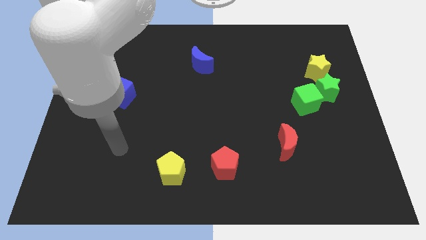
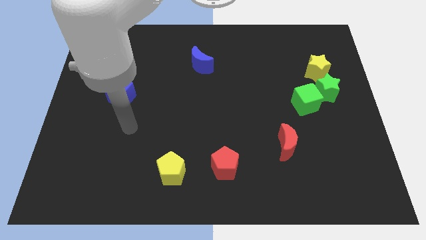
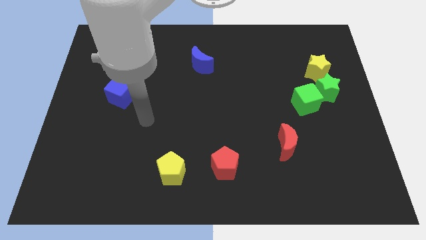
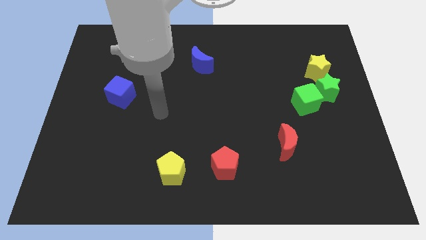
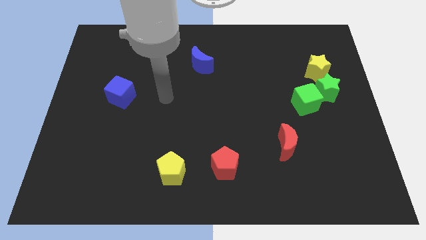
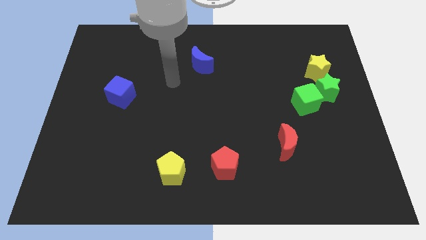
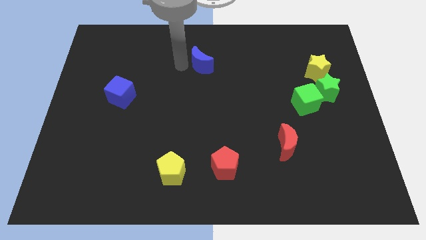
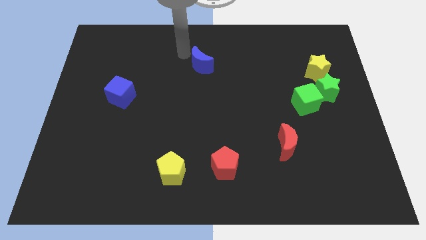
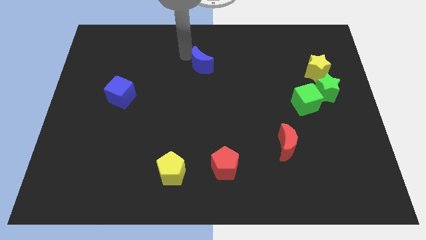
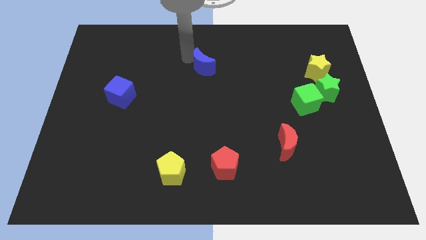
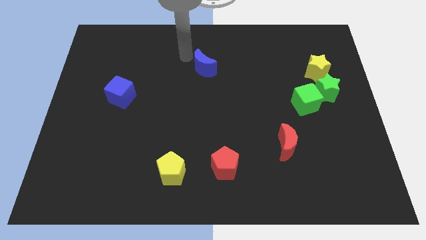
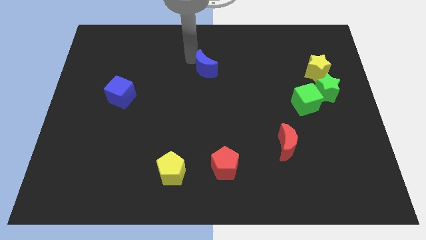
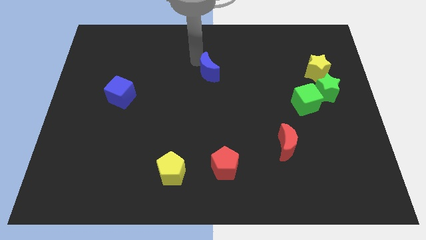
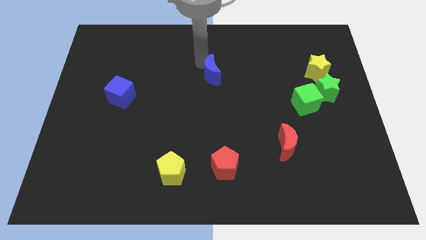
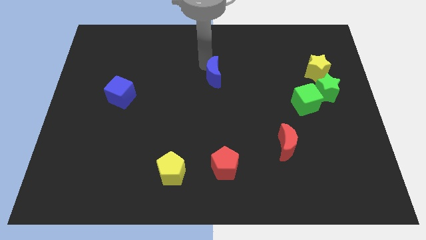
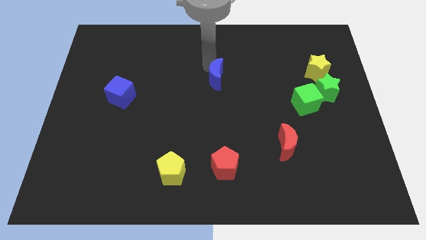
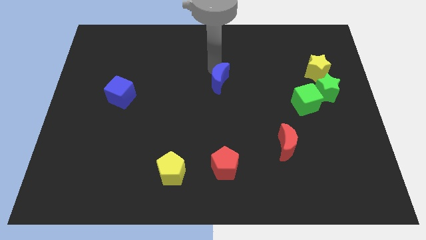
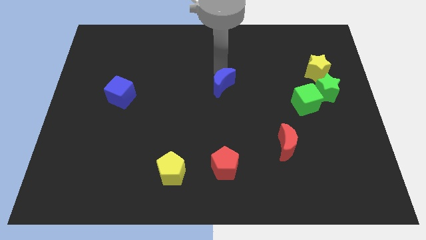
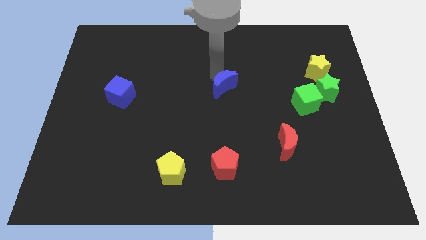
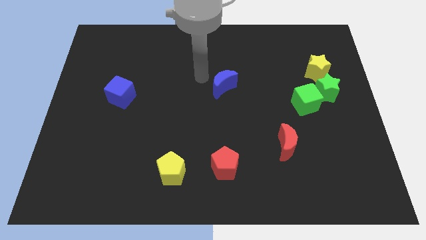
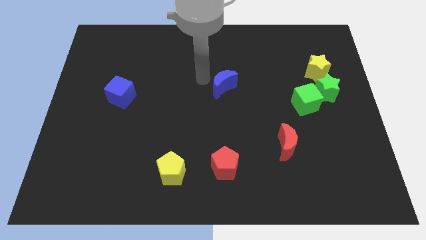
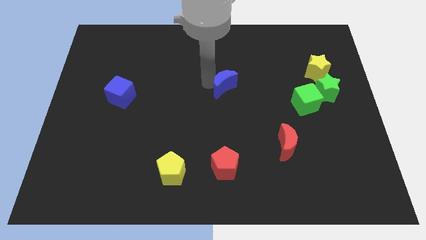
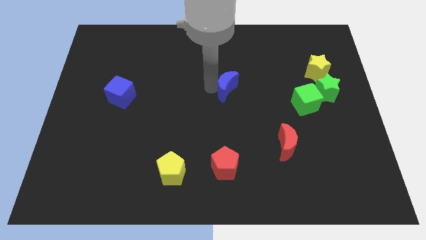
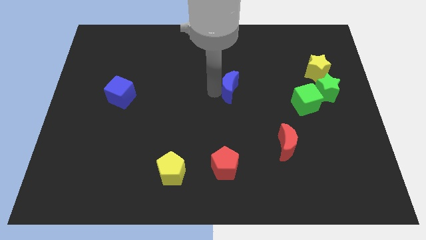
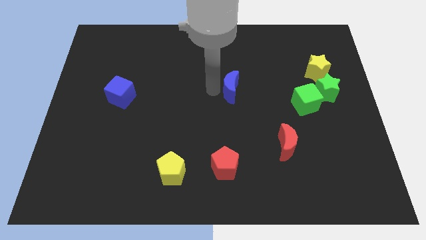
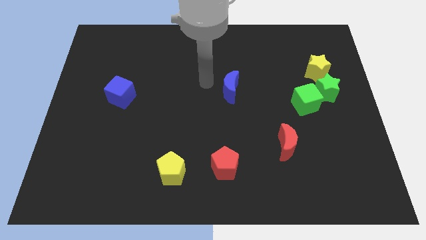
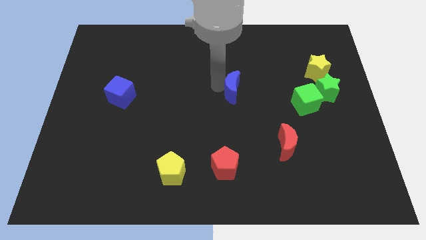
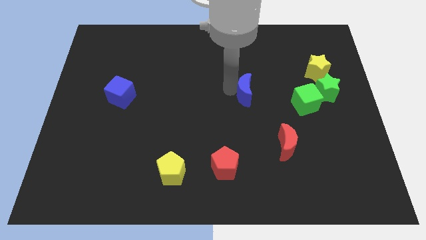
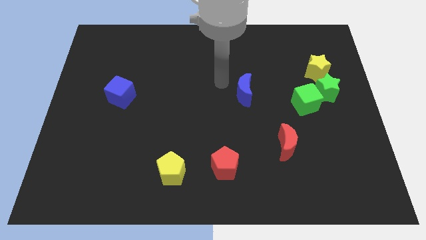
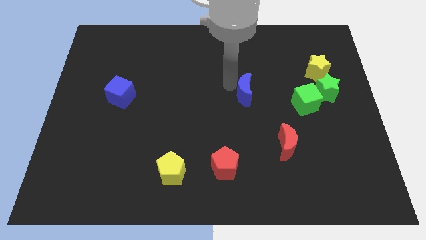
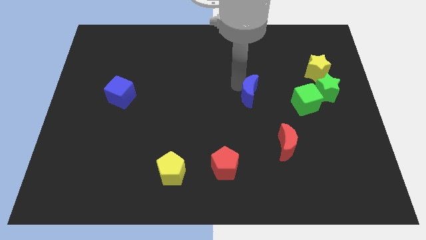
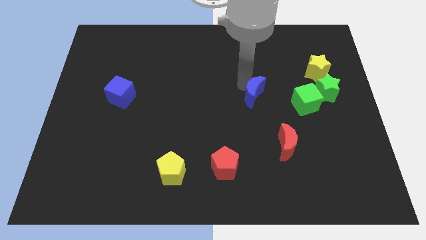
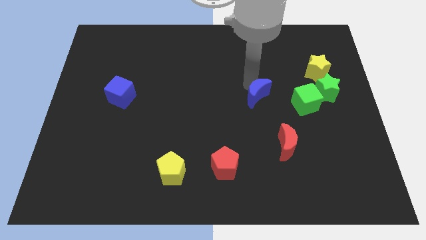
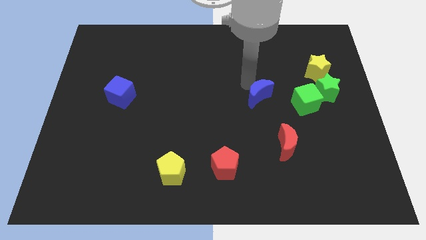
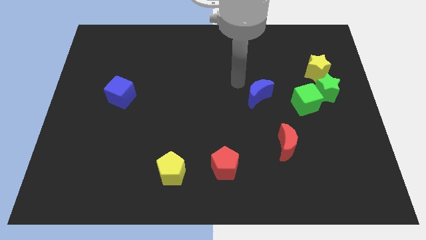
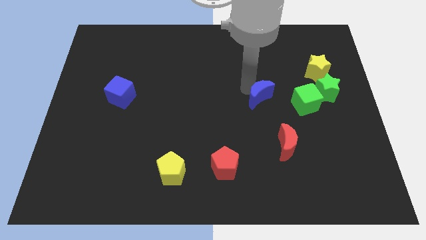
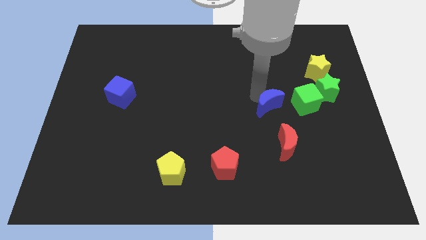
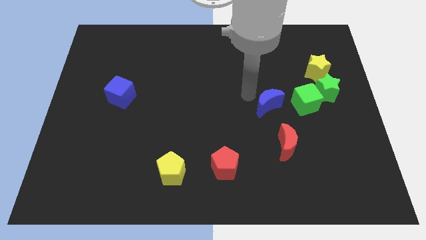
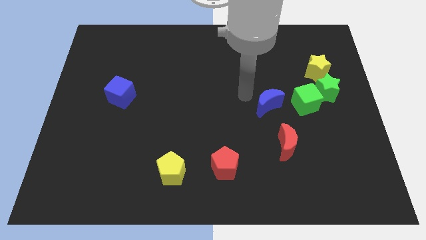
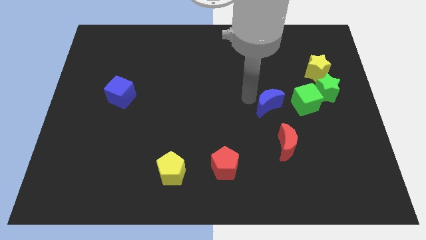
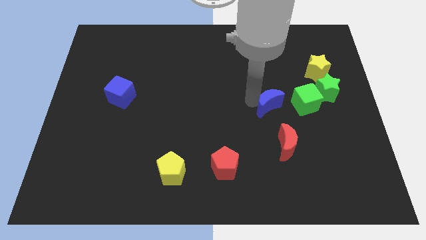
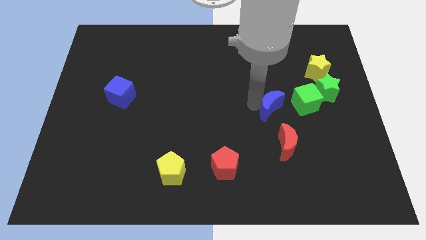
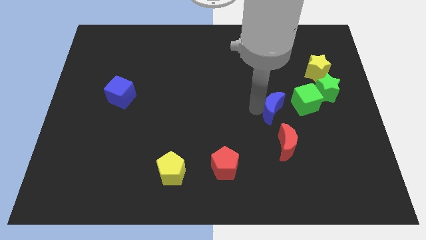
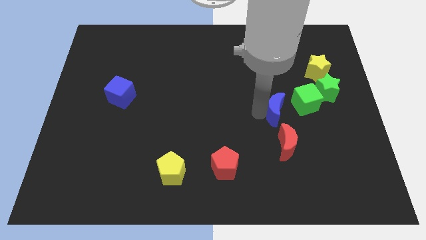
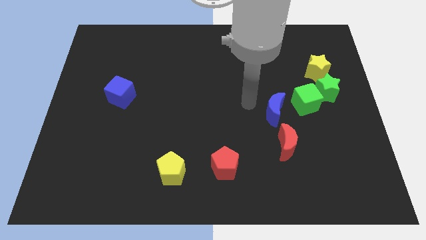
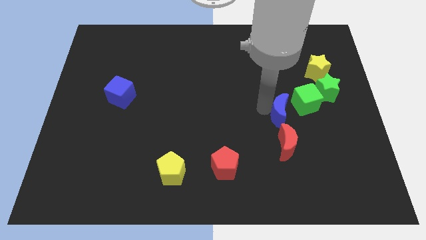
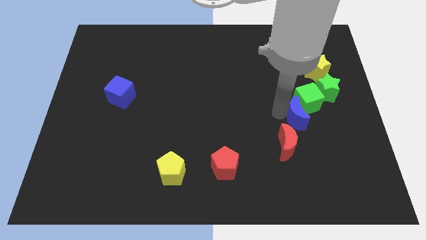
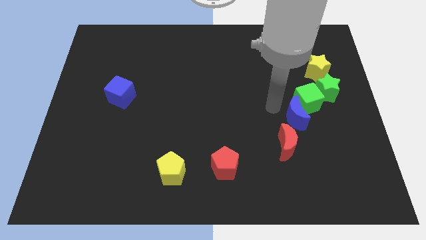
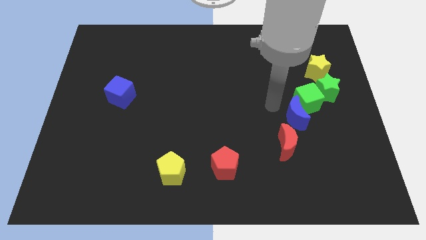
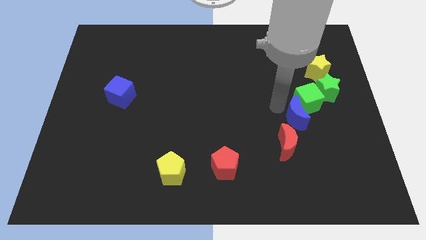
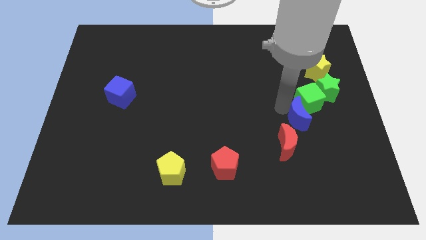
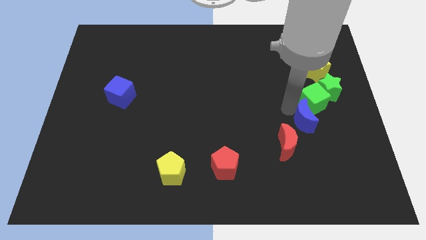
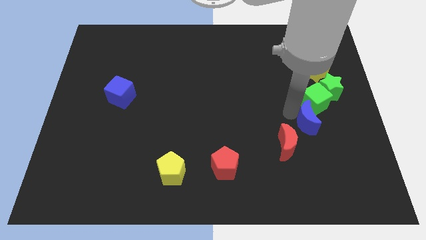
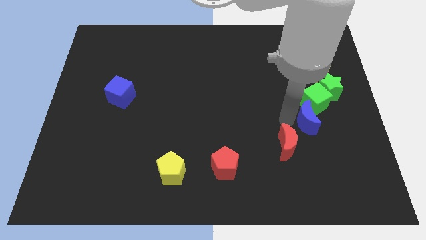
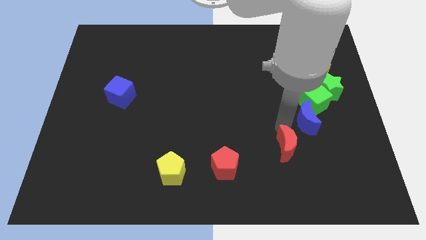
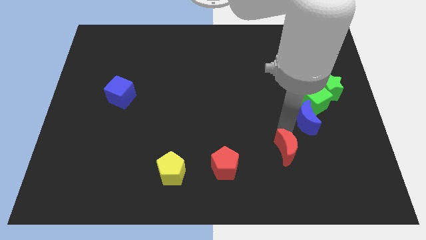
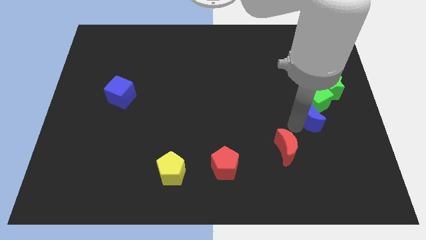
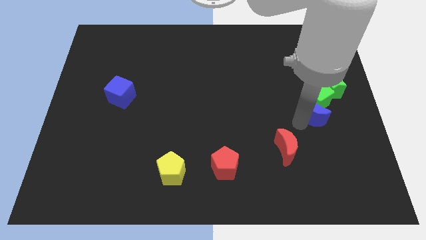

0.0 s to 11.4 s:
push the blue moon to the bottom side of the yellow star

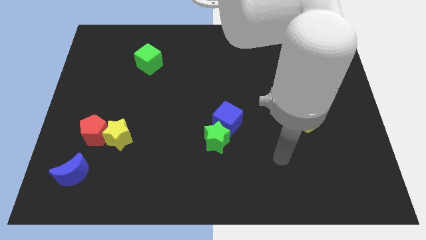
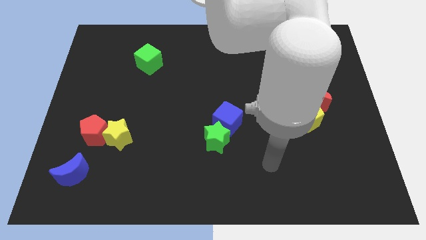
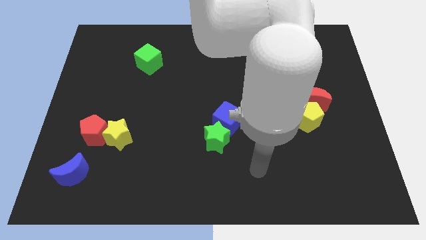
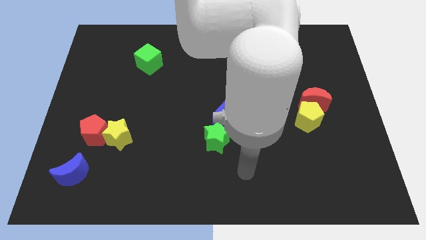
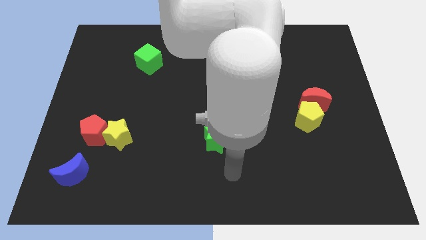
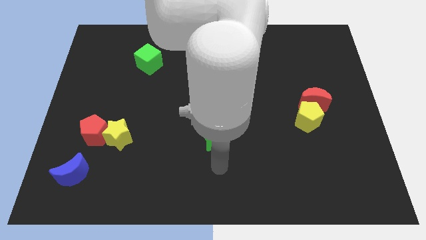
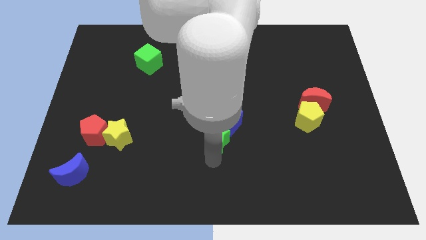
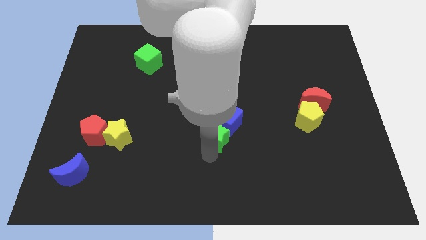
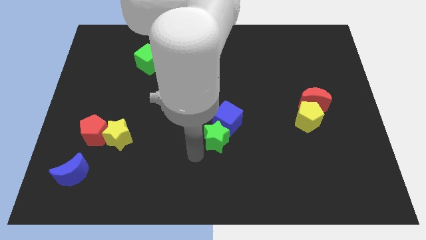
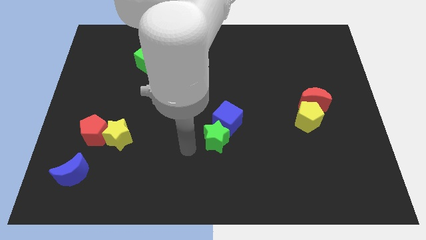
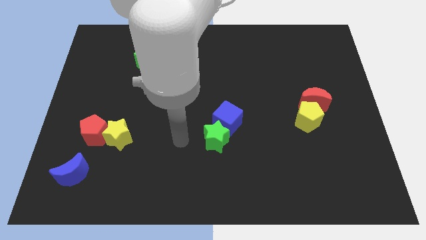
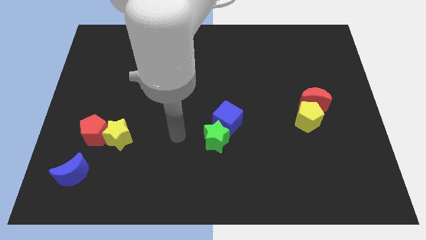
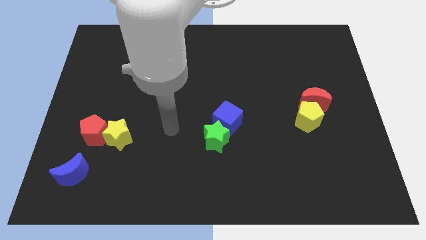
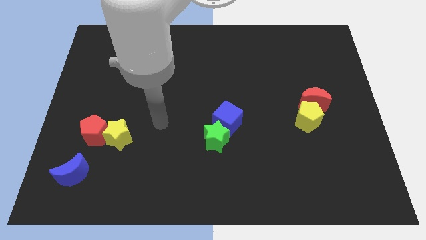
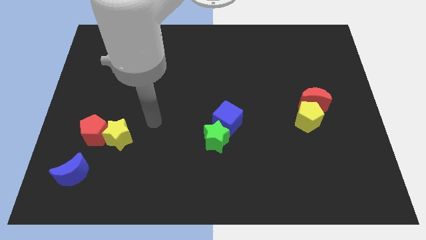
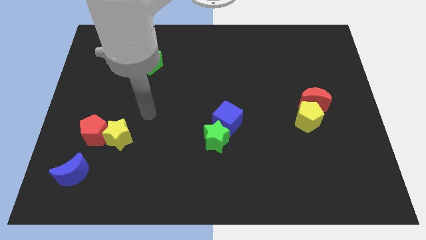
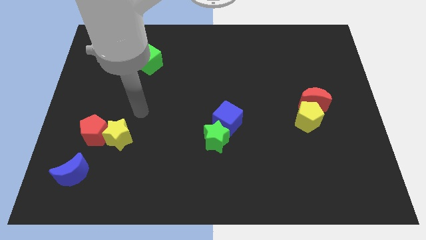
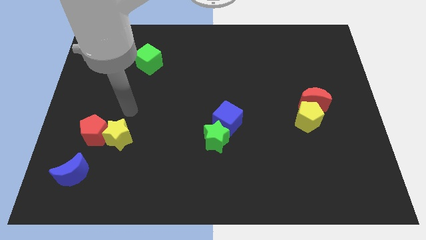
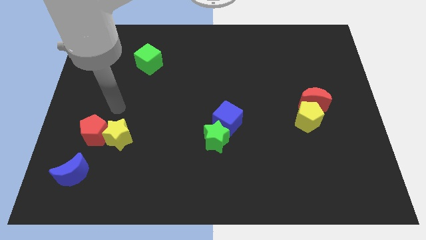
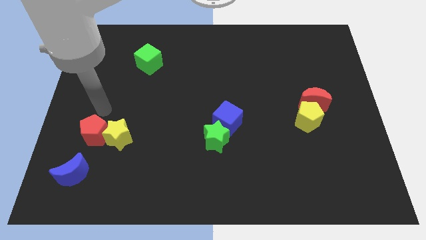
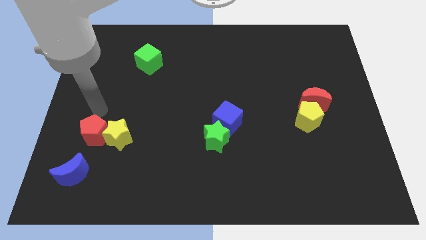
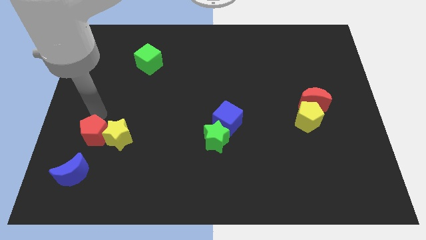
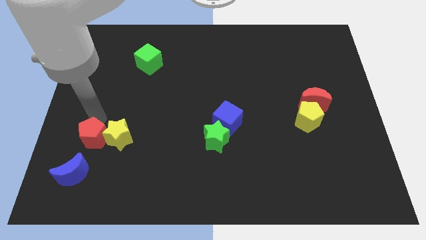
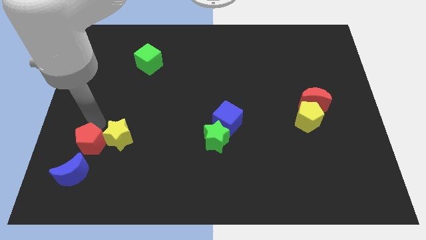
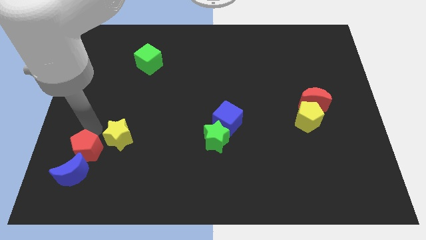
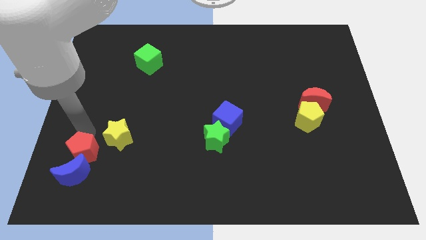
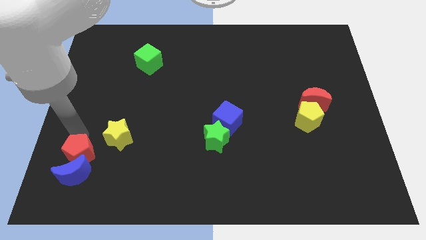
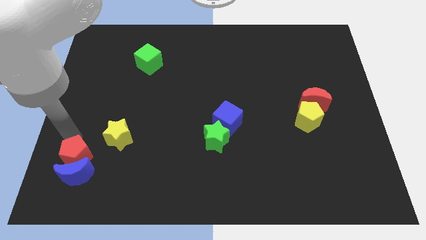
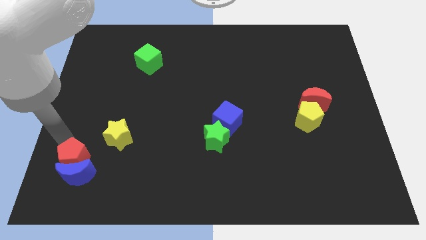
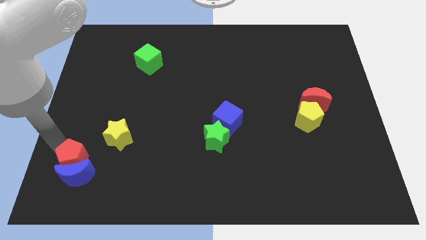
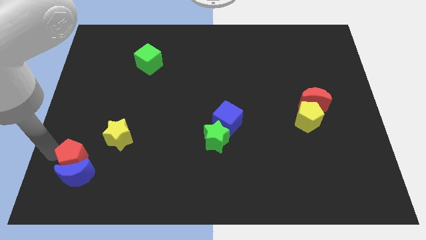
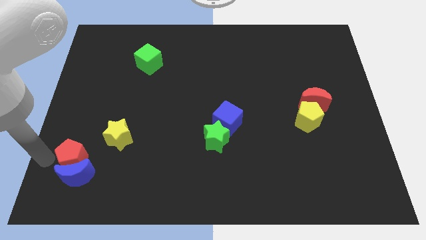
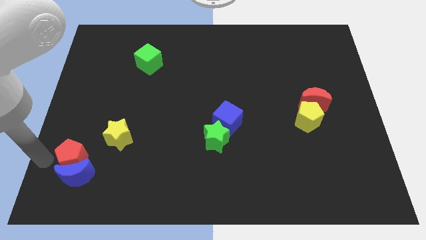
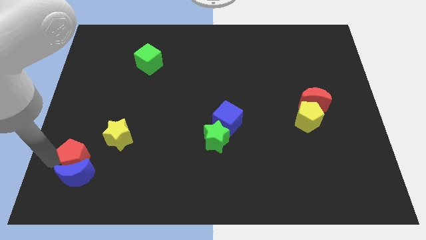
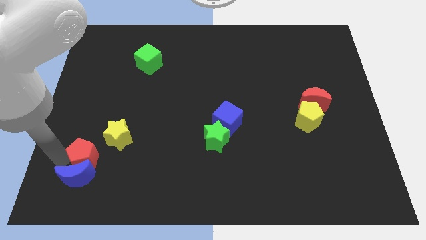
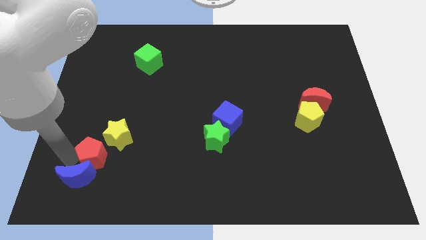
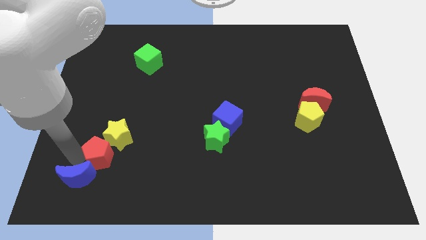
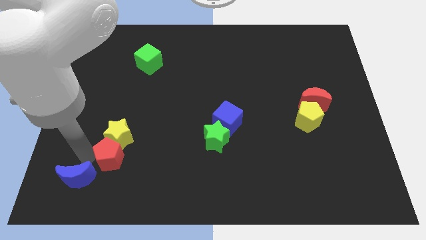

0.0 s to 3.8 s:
move the red pentagon to the bottom right of the yellow star
